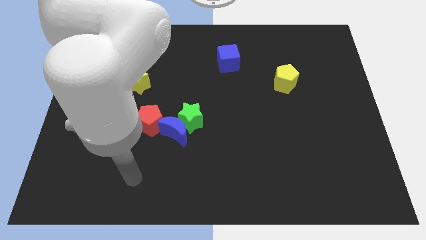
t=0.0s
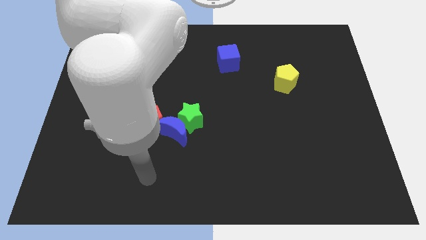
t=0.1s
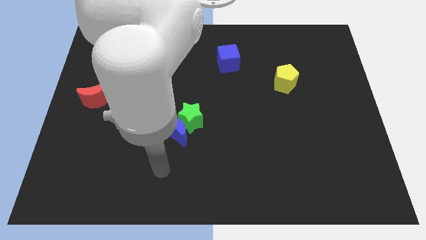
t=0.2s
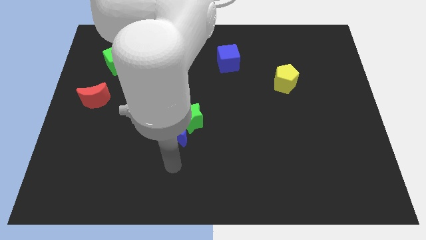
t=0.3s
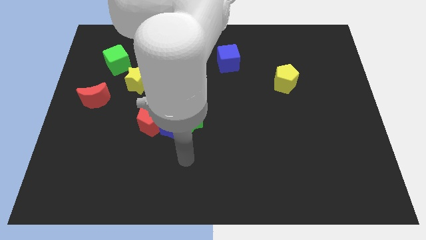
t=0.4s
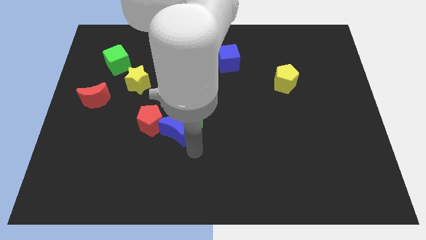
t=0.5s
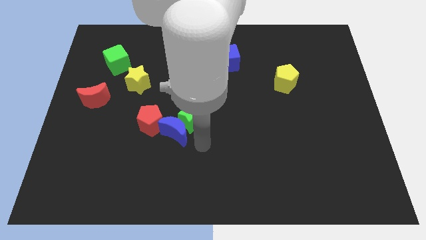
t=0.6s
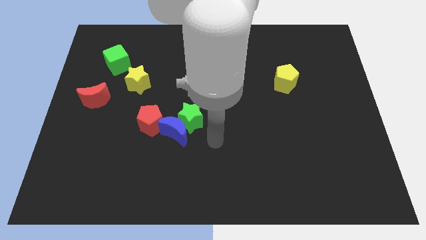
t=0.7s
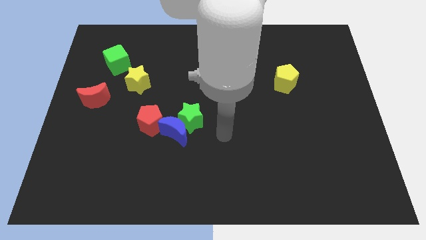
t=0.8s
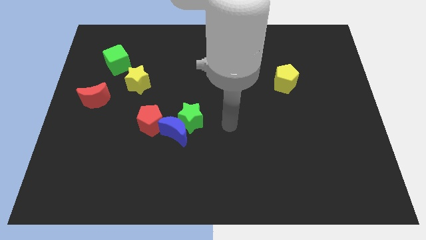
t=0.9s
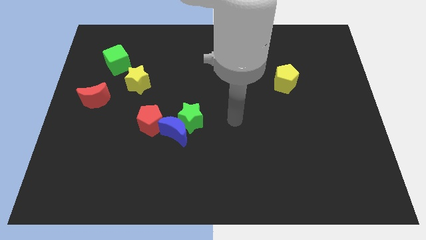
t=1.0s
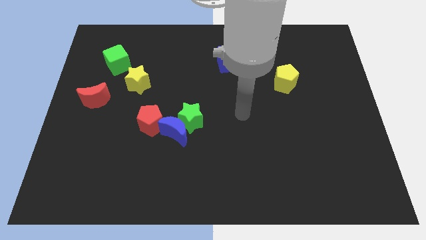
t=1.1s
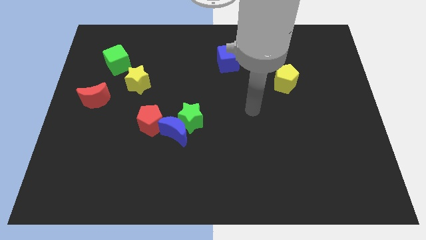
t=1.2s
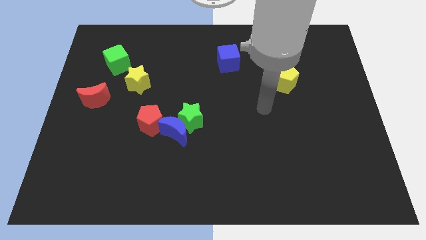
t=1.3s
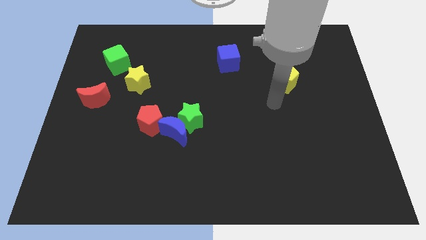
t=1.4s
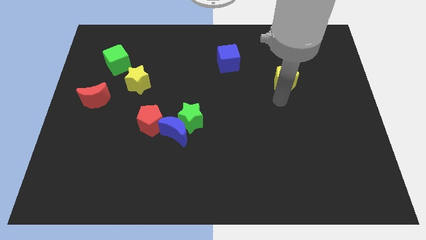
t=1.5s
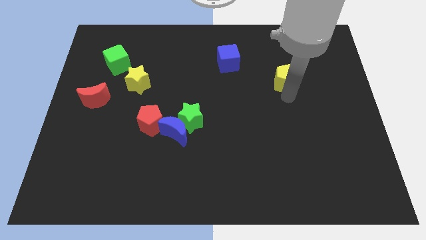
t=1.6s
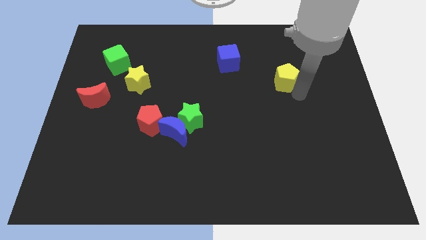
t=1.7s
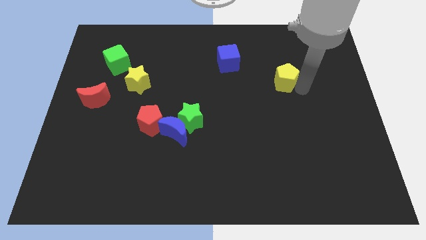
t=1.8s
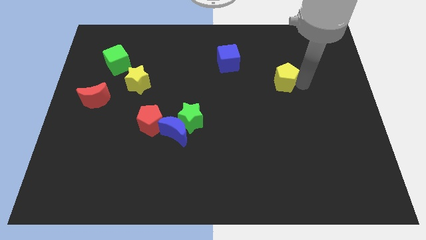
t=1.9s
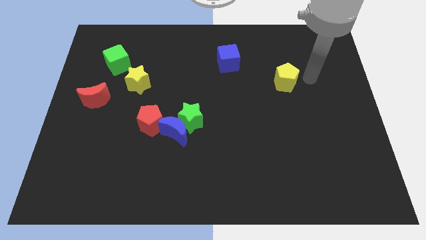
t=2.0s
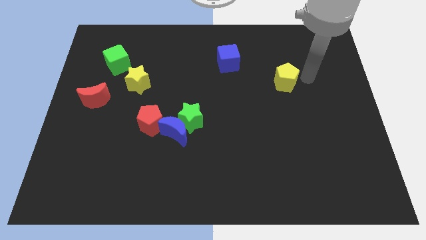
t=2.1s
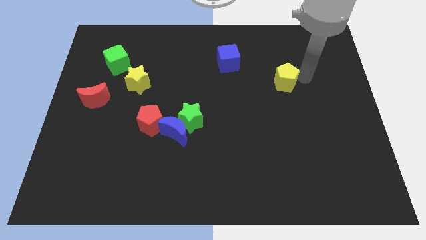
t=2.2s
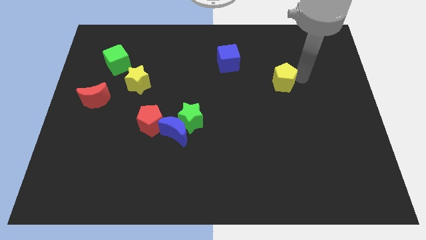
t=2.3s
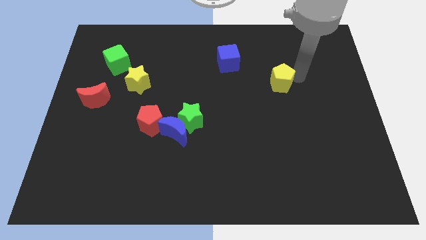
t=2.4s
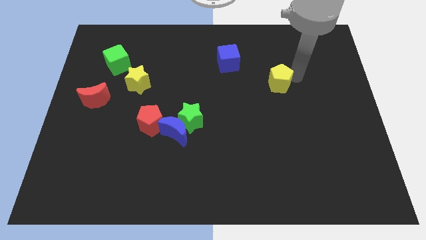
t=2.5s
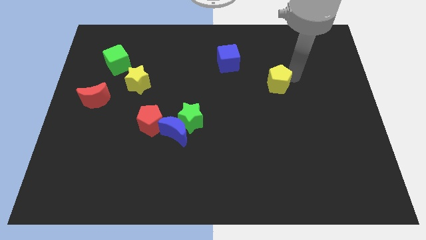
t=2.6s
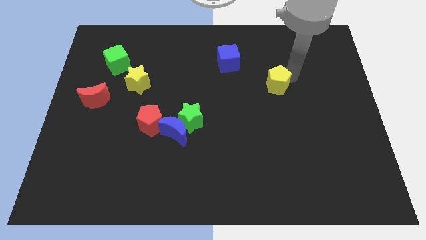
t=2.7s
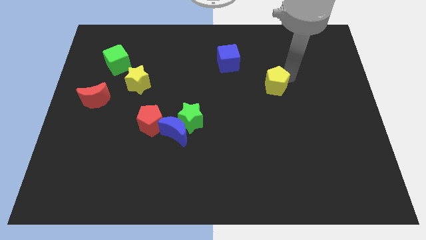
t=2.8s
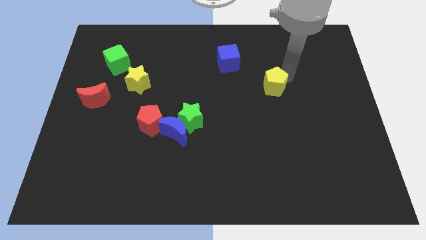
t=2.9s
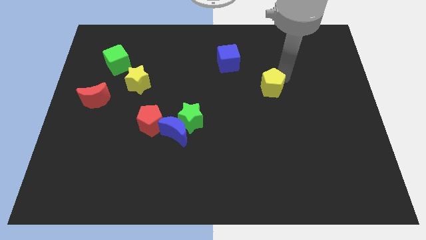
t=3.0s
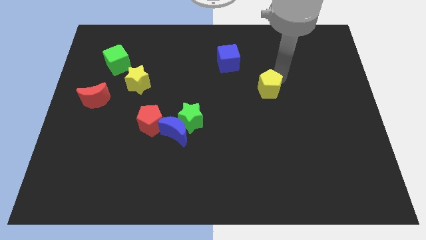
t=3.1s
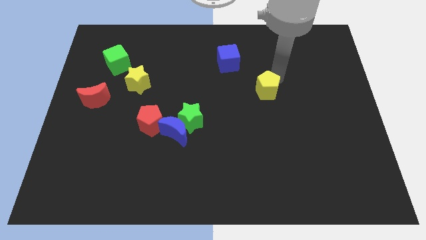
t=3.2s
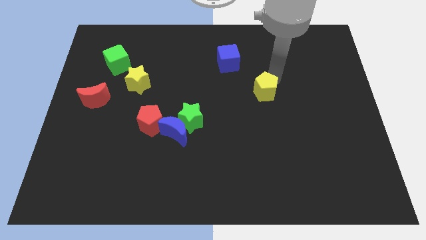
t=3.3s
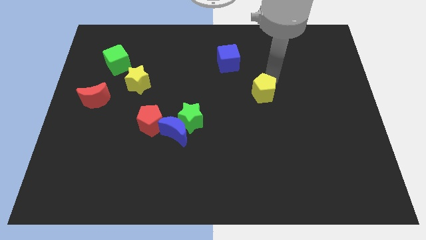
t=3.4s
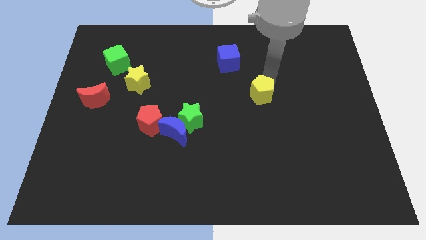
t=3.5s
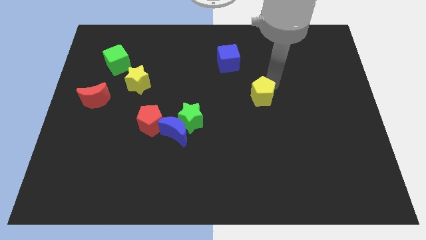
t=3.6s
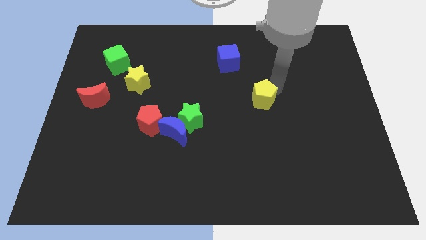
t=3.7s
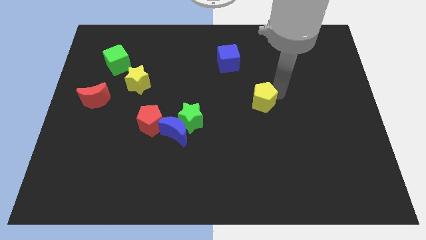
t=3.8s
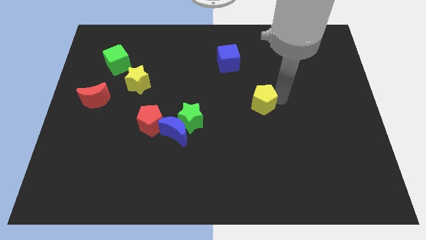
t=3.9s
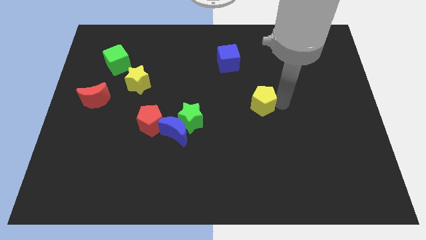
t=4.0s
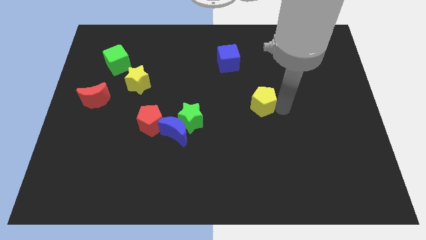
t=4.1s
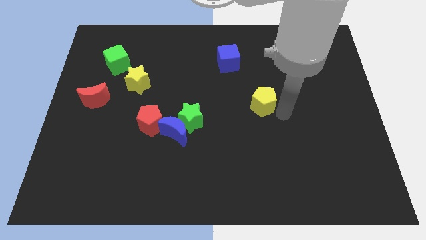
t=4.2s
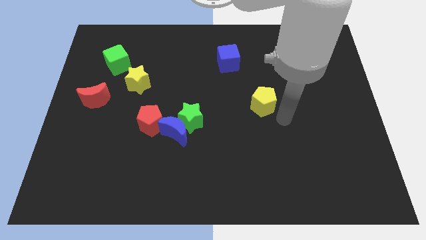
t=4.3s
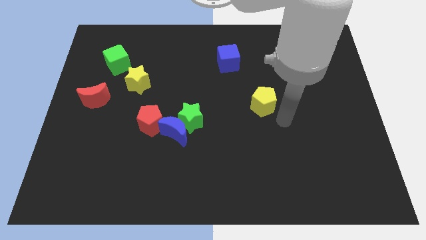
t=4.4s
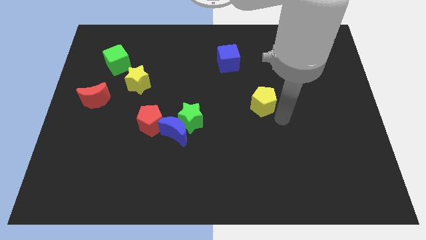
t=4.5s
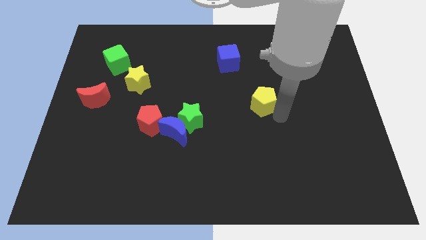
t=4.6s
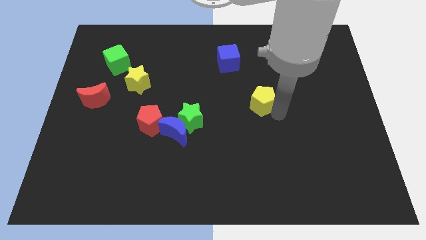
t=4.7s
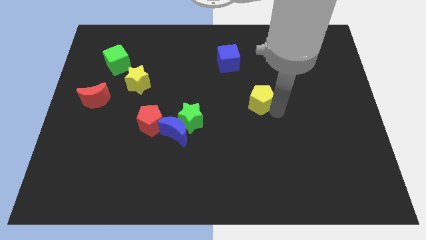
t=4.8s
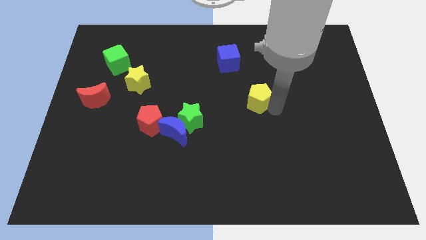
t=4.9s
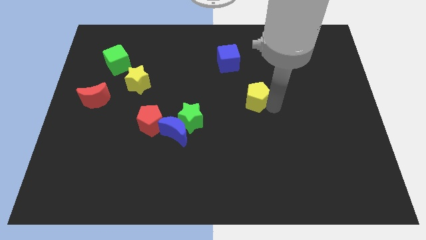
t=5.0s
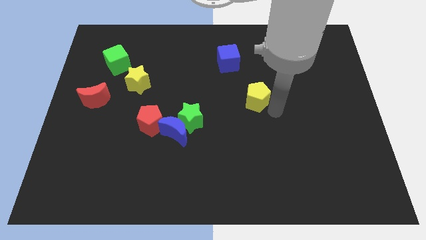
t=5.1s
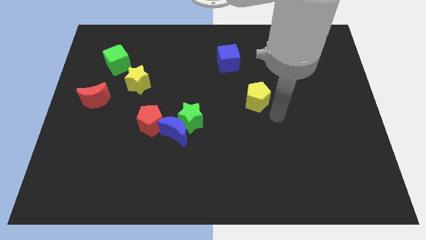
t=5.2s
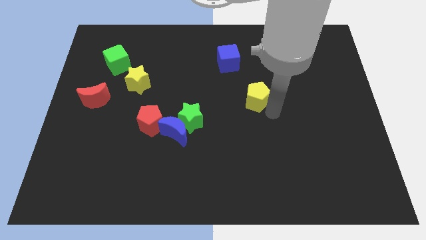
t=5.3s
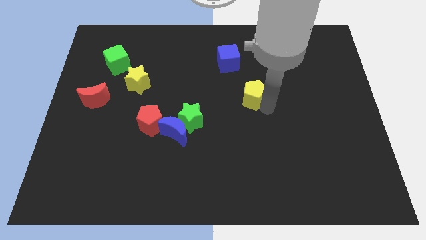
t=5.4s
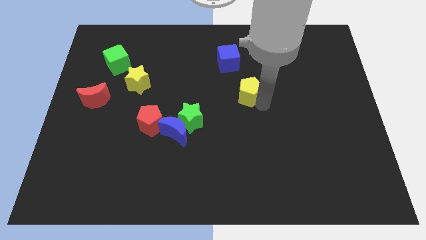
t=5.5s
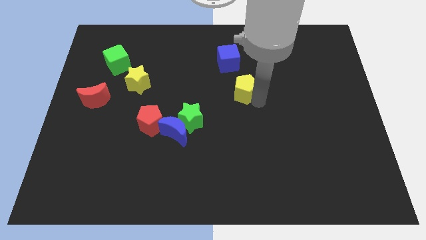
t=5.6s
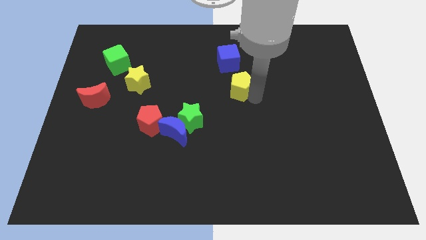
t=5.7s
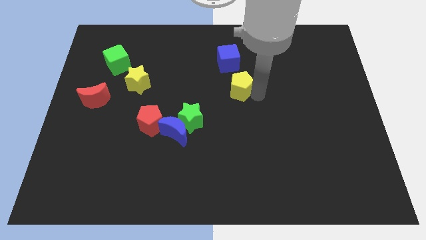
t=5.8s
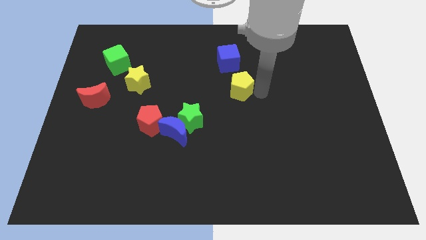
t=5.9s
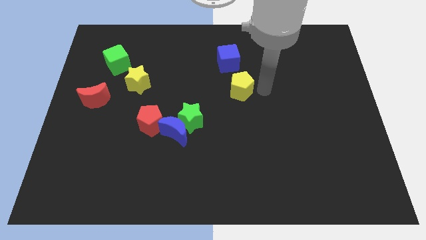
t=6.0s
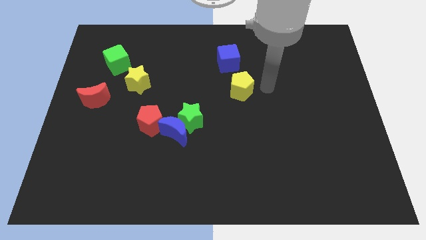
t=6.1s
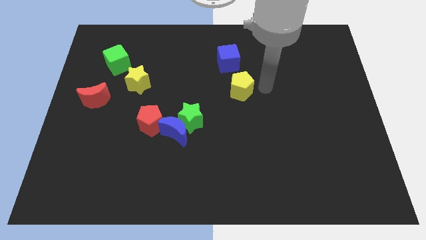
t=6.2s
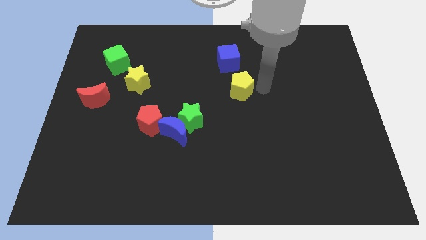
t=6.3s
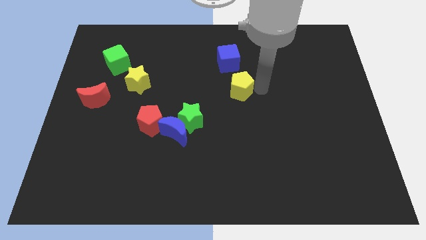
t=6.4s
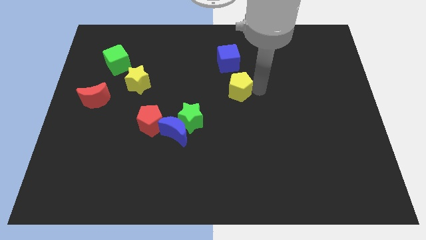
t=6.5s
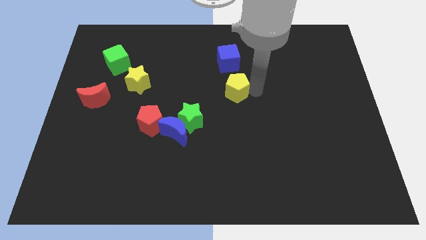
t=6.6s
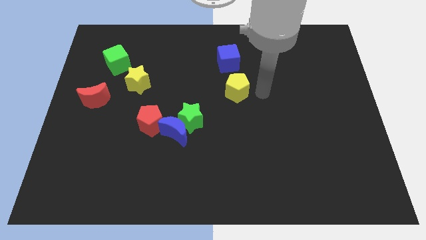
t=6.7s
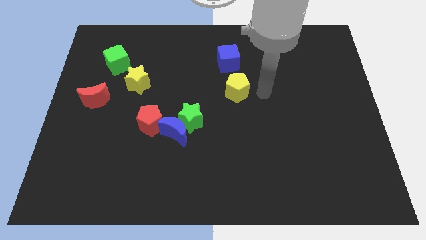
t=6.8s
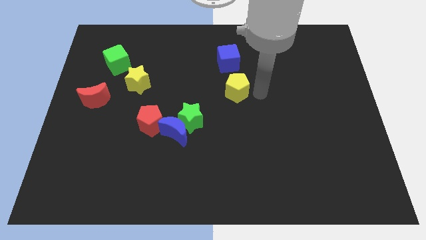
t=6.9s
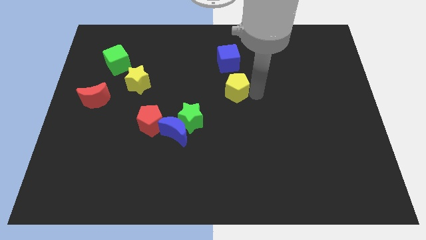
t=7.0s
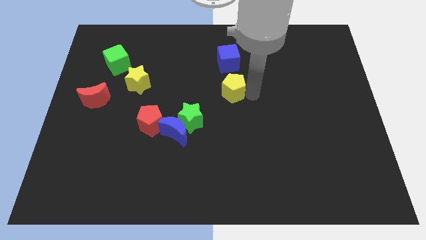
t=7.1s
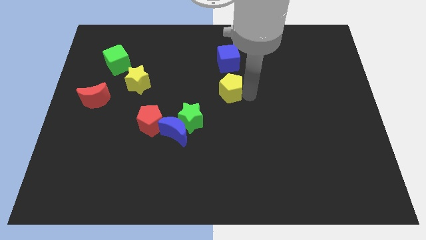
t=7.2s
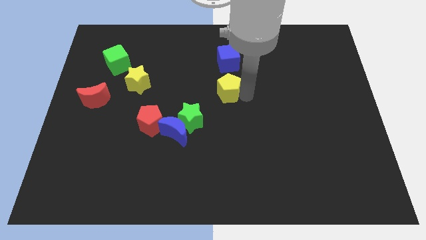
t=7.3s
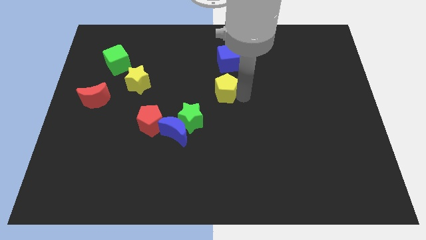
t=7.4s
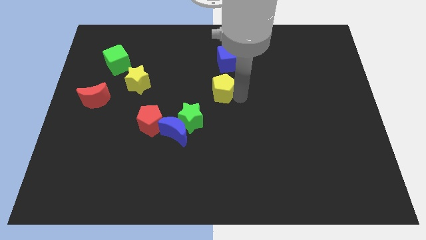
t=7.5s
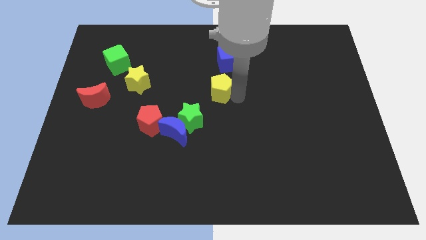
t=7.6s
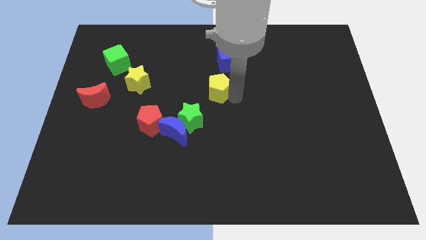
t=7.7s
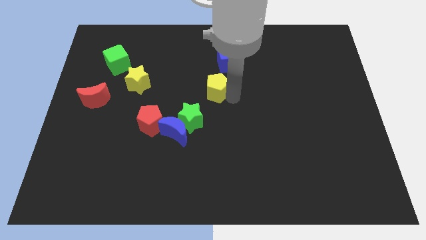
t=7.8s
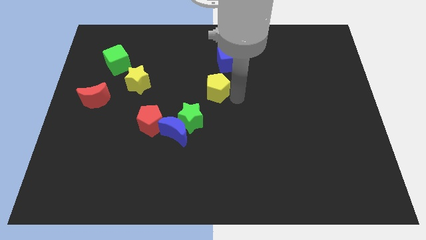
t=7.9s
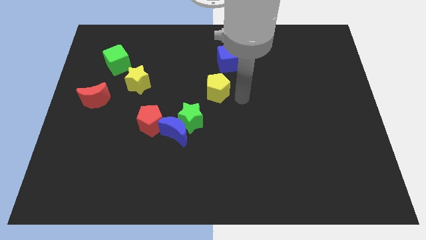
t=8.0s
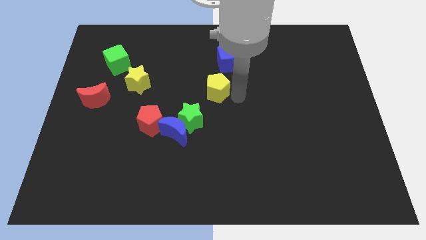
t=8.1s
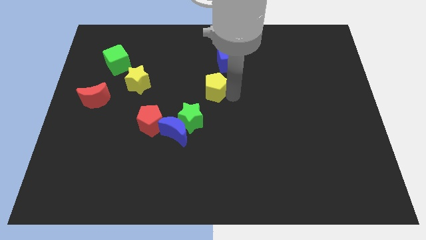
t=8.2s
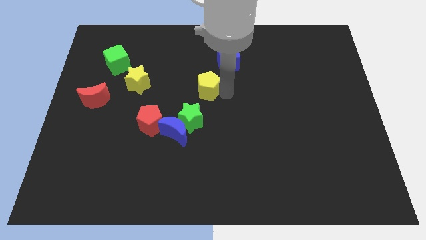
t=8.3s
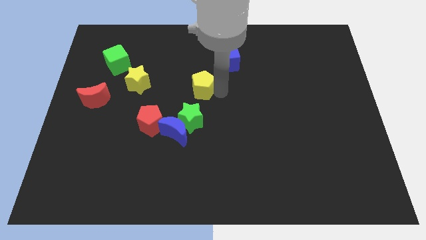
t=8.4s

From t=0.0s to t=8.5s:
move the yellow pentagon to the left

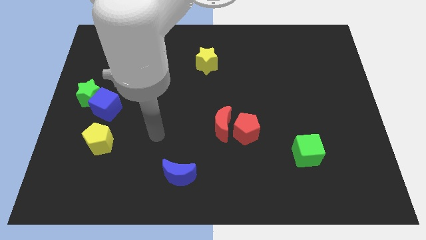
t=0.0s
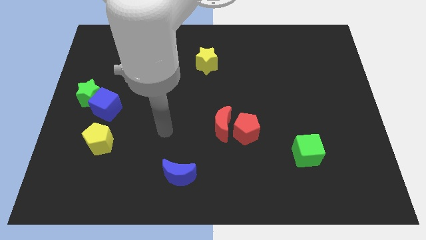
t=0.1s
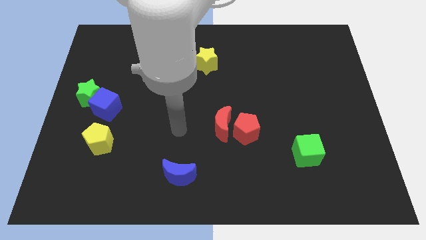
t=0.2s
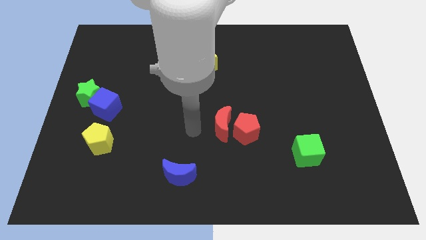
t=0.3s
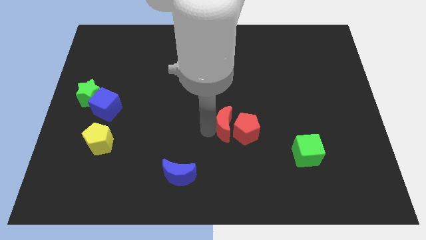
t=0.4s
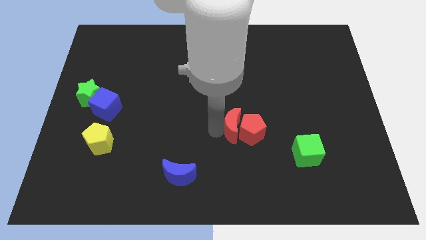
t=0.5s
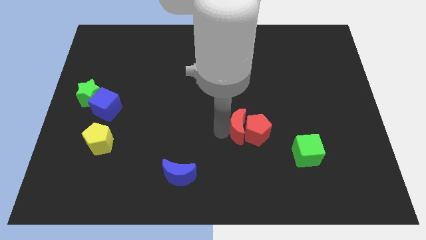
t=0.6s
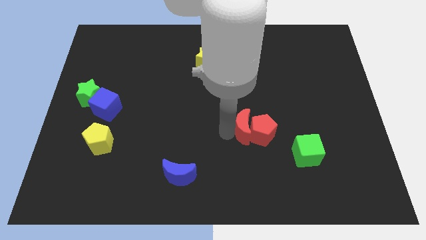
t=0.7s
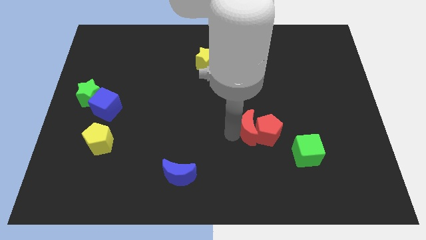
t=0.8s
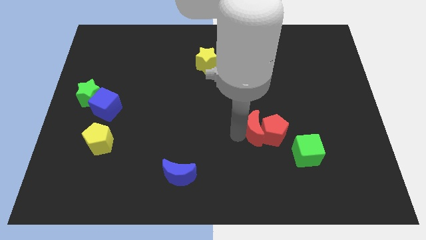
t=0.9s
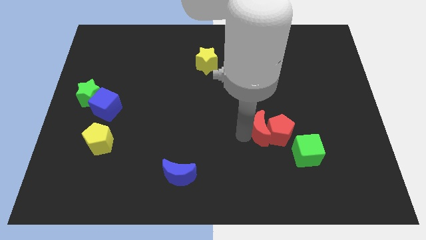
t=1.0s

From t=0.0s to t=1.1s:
slightly push the red pentagon to the right
